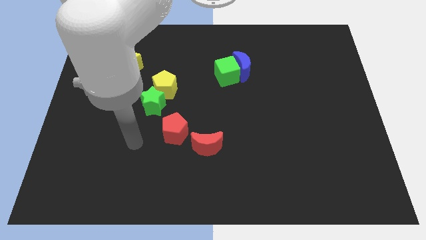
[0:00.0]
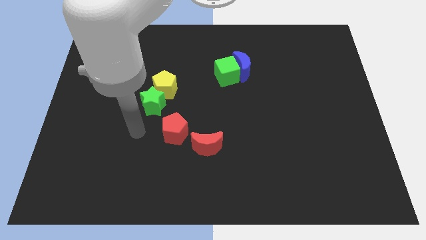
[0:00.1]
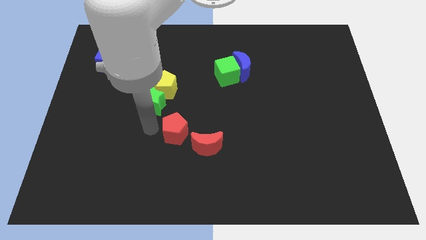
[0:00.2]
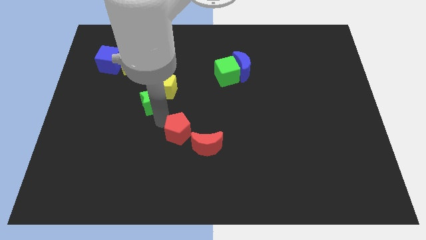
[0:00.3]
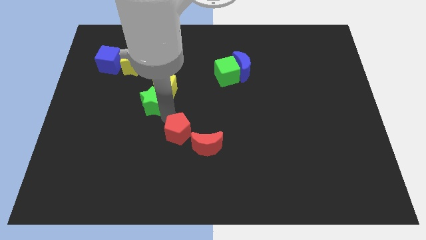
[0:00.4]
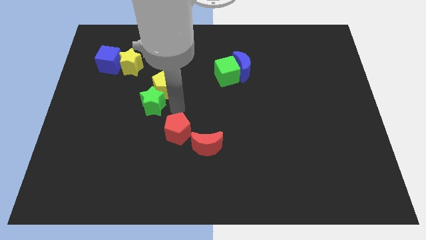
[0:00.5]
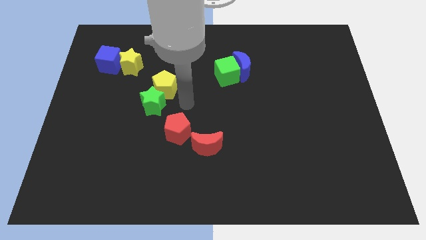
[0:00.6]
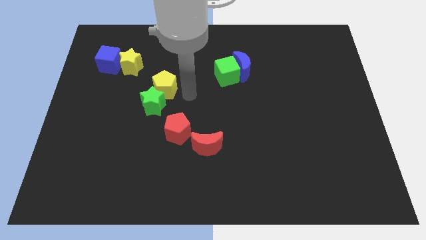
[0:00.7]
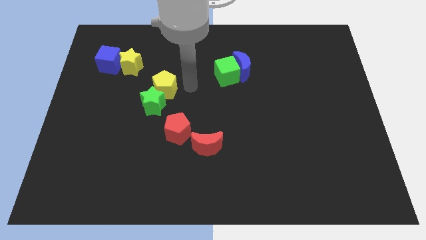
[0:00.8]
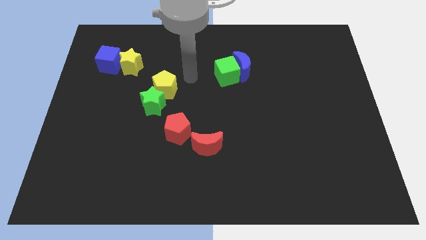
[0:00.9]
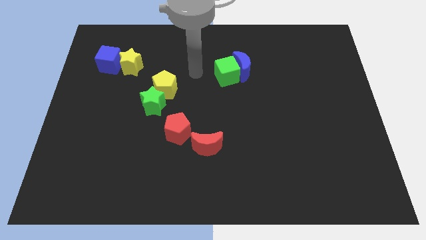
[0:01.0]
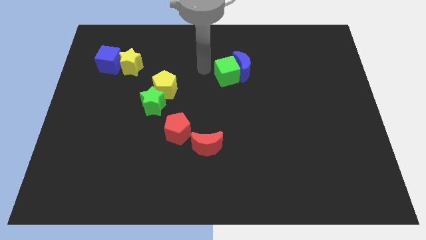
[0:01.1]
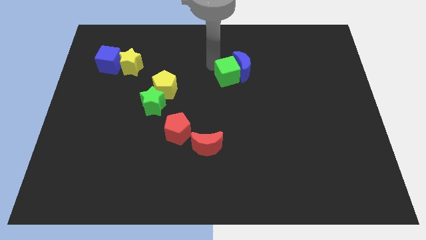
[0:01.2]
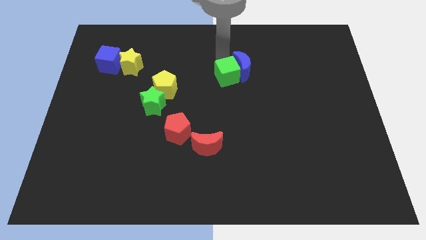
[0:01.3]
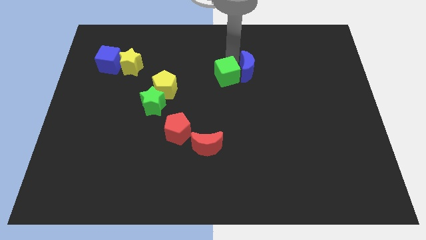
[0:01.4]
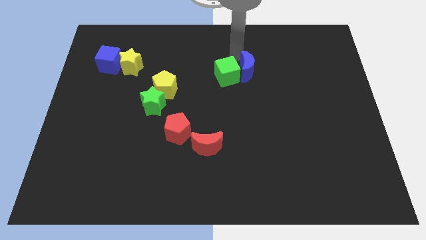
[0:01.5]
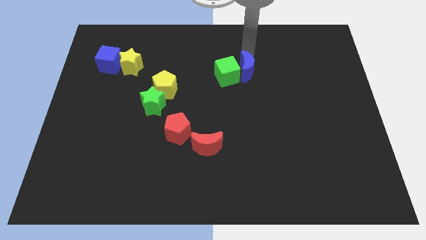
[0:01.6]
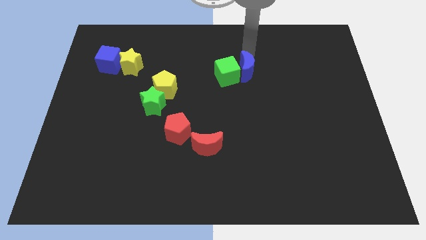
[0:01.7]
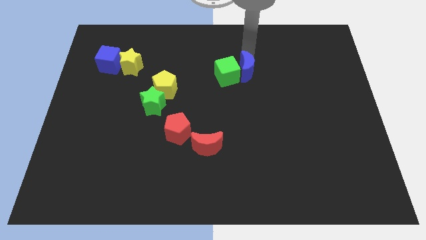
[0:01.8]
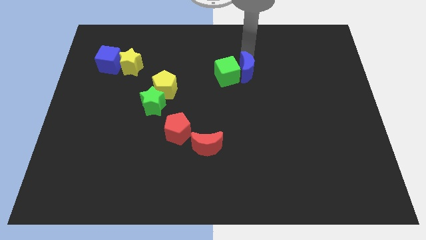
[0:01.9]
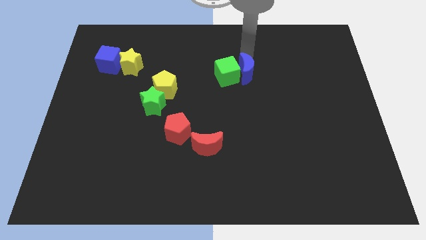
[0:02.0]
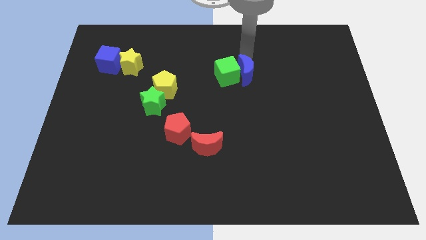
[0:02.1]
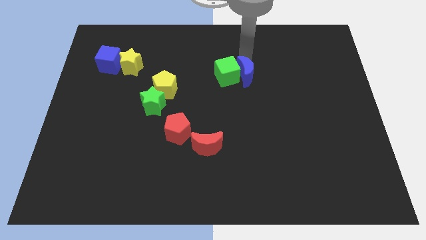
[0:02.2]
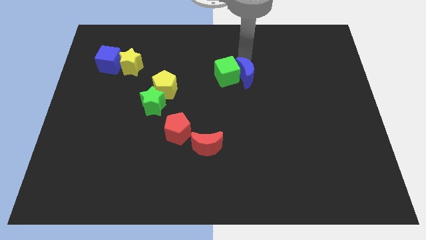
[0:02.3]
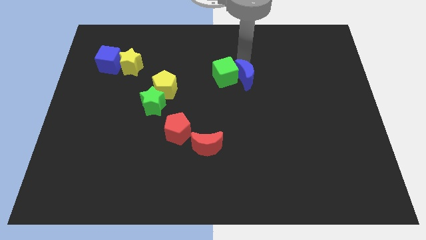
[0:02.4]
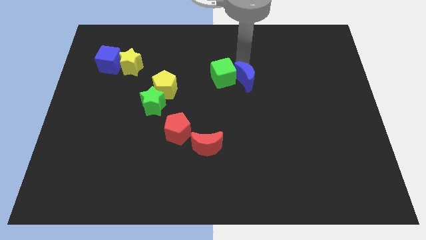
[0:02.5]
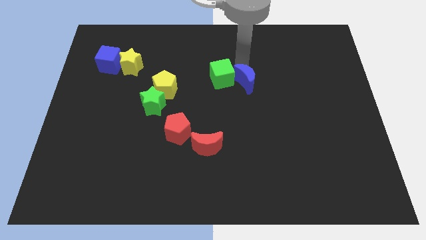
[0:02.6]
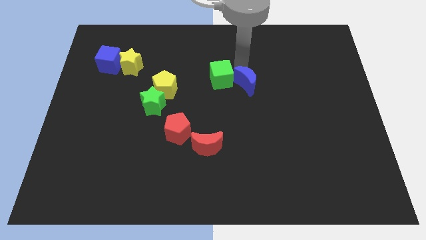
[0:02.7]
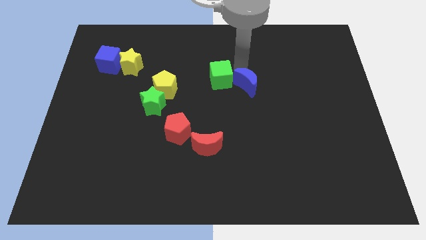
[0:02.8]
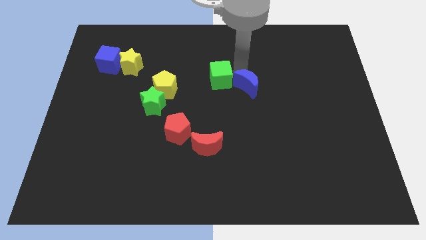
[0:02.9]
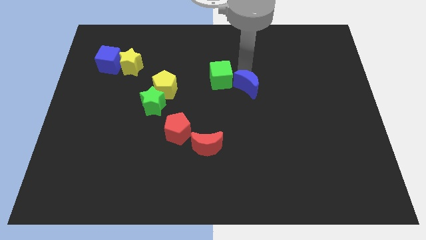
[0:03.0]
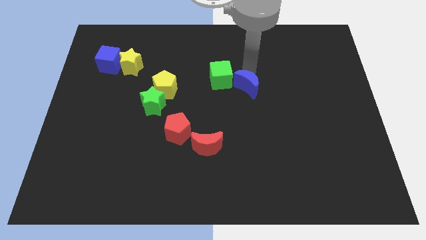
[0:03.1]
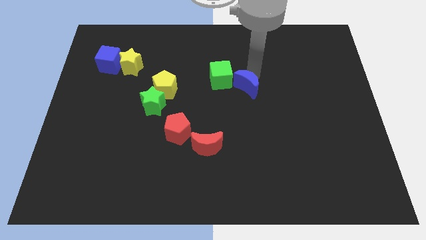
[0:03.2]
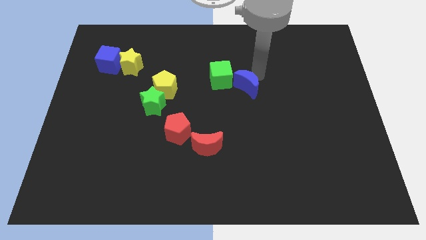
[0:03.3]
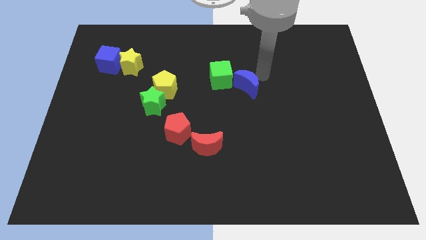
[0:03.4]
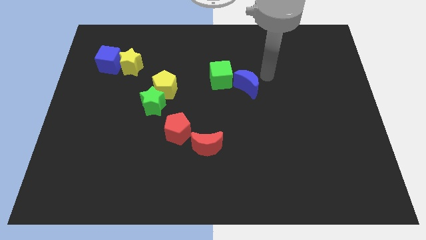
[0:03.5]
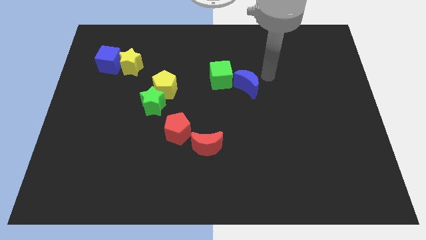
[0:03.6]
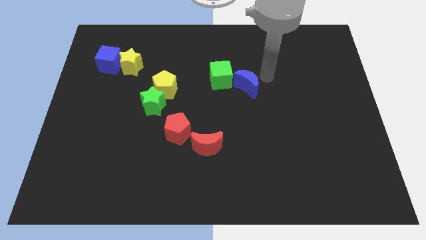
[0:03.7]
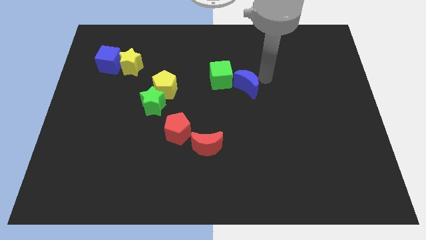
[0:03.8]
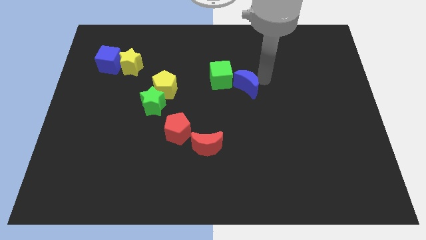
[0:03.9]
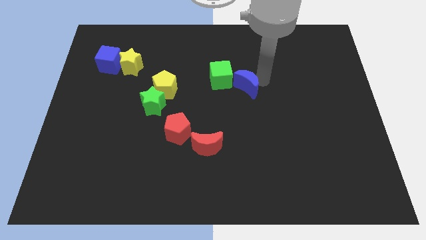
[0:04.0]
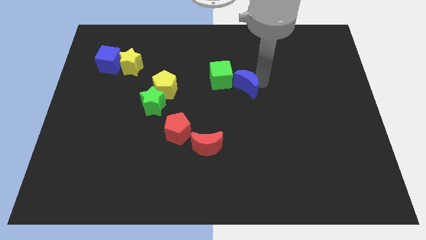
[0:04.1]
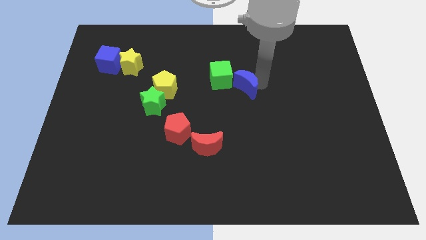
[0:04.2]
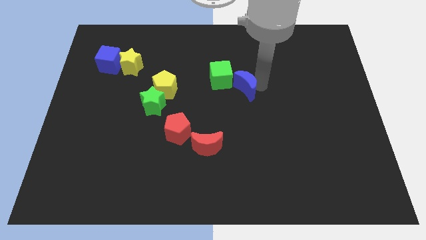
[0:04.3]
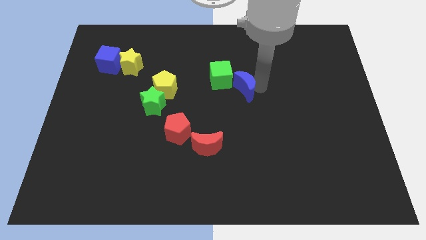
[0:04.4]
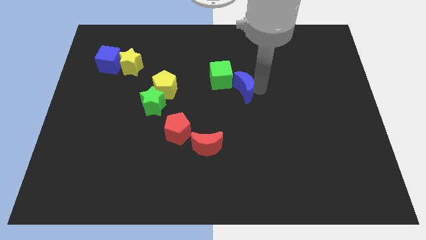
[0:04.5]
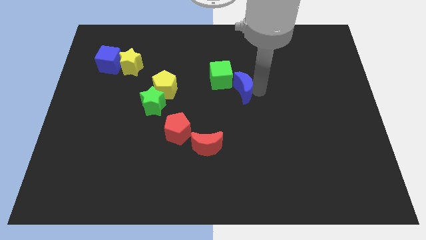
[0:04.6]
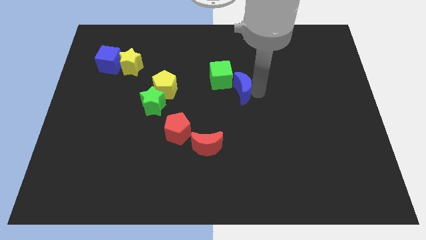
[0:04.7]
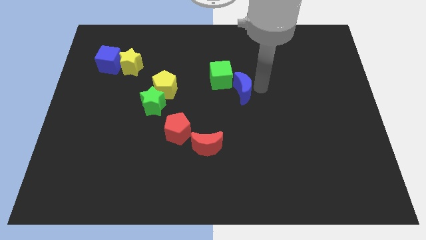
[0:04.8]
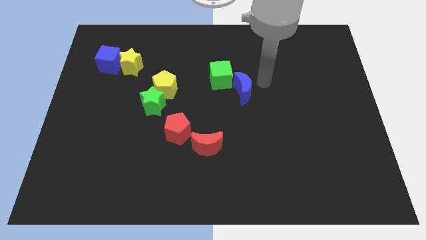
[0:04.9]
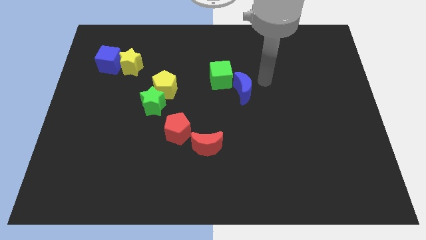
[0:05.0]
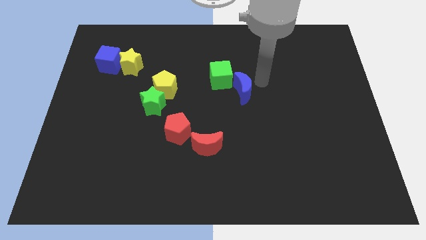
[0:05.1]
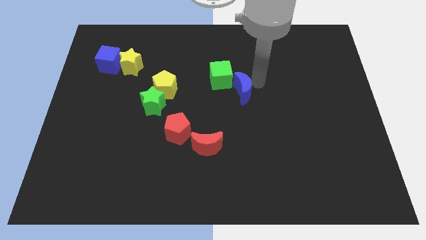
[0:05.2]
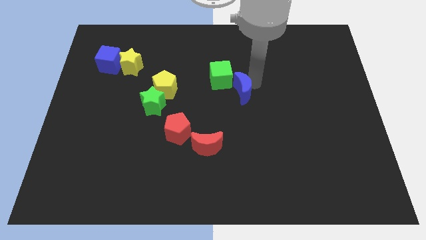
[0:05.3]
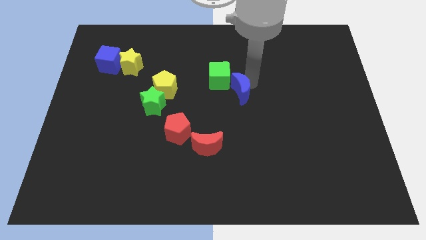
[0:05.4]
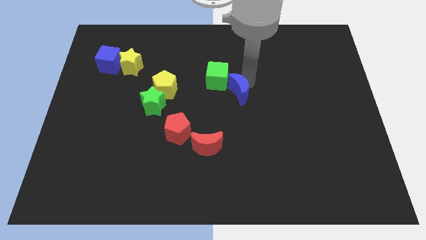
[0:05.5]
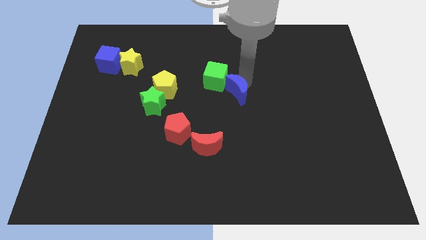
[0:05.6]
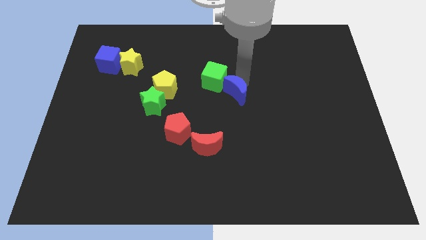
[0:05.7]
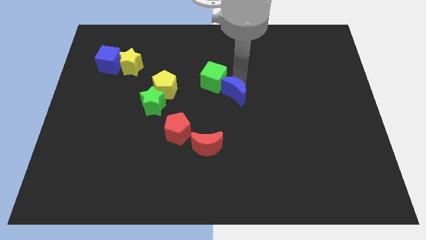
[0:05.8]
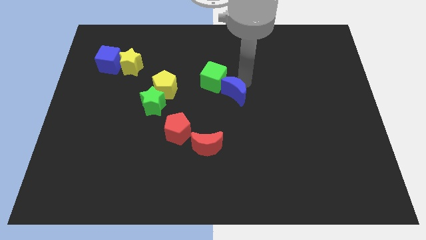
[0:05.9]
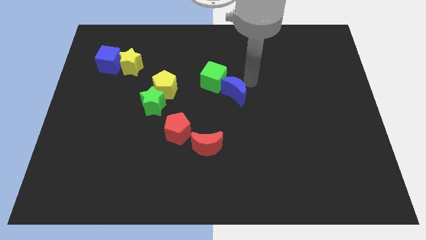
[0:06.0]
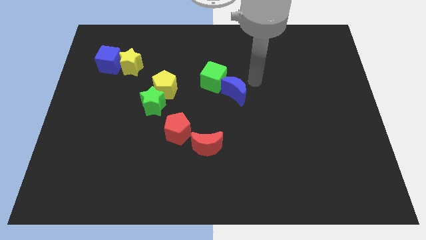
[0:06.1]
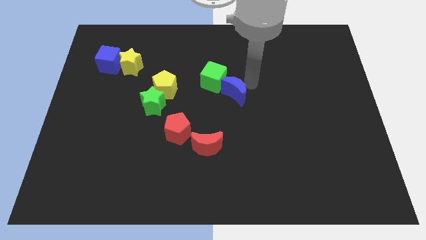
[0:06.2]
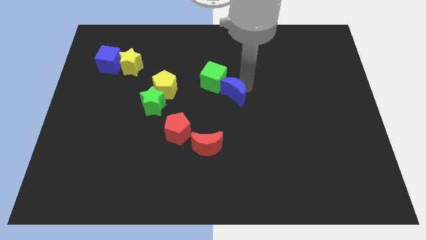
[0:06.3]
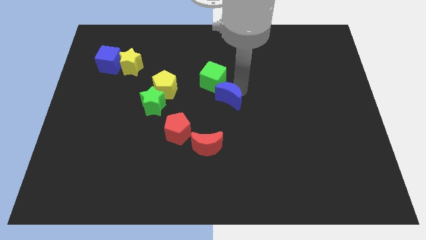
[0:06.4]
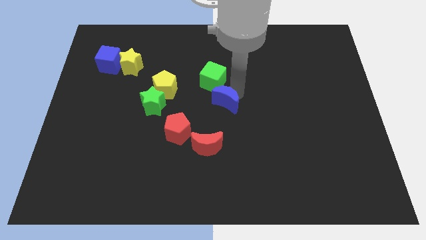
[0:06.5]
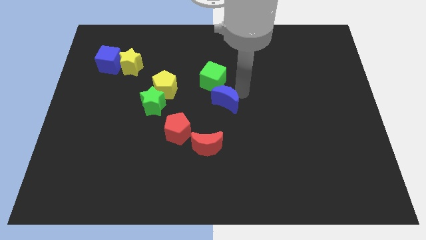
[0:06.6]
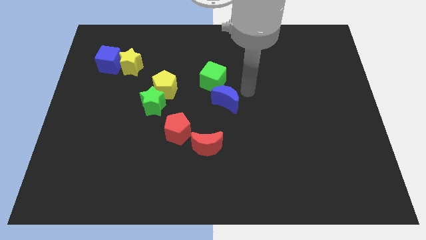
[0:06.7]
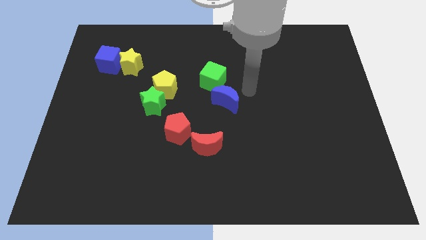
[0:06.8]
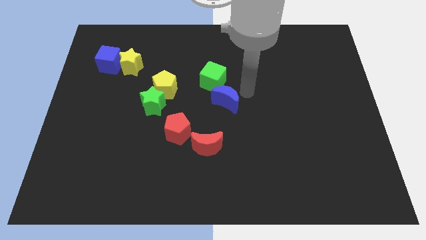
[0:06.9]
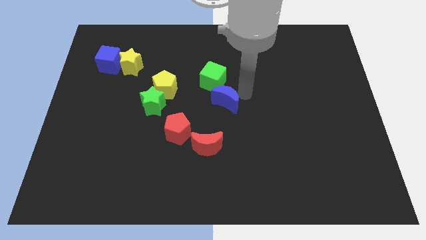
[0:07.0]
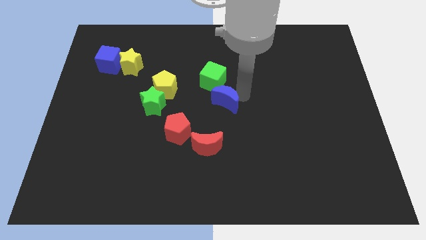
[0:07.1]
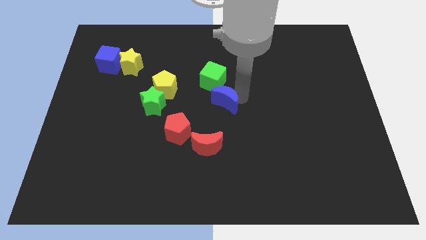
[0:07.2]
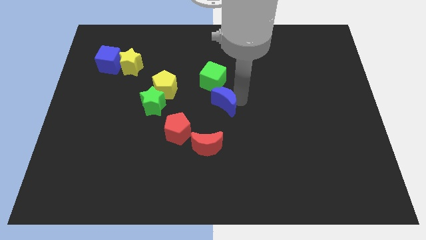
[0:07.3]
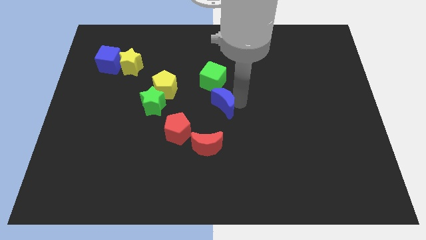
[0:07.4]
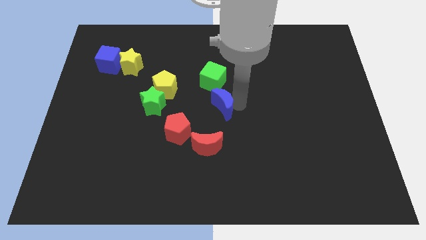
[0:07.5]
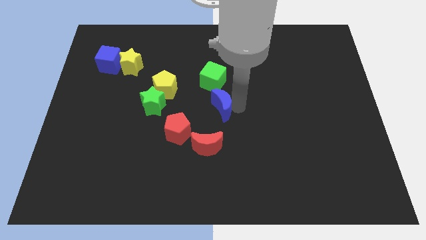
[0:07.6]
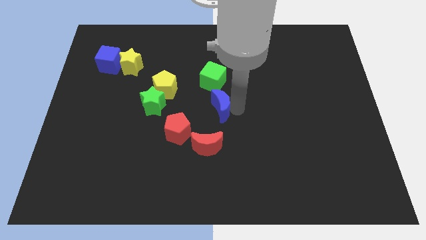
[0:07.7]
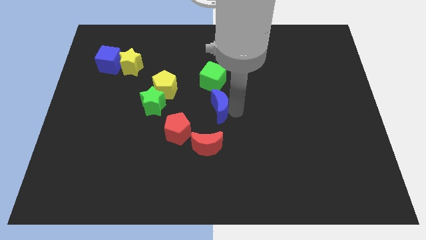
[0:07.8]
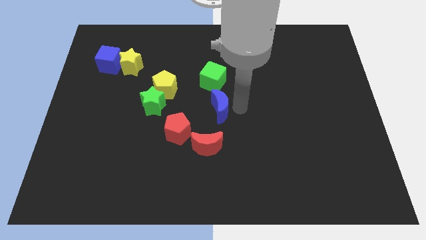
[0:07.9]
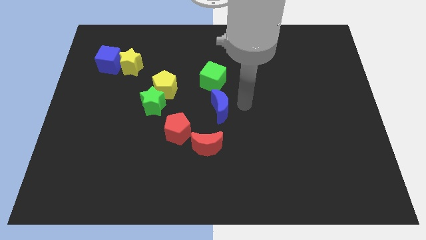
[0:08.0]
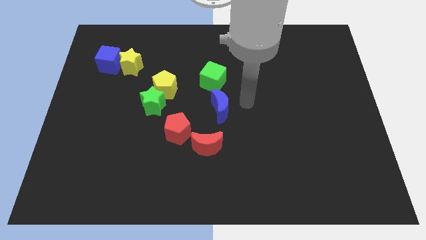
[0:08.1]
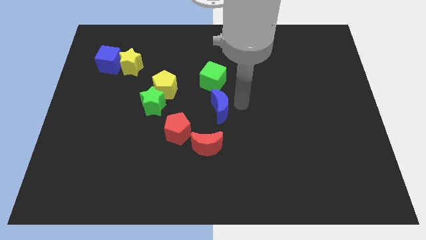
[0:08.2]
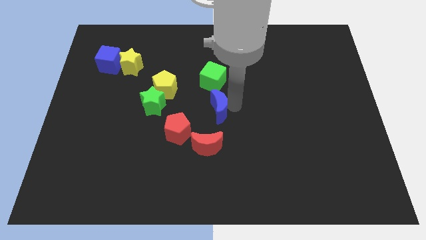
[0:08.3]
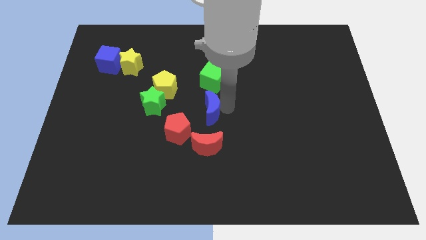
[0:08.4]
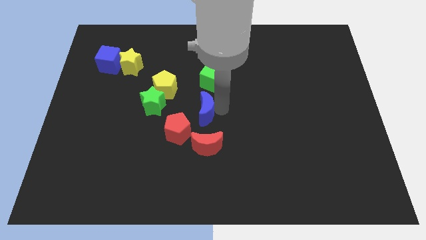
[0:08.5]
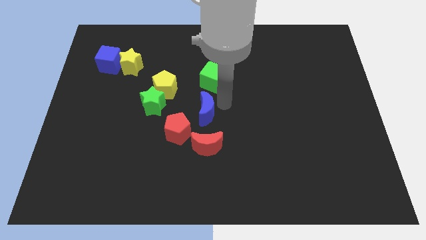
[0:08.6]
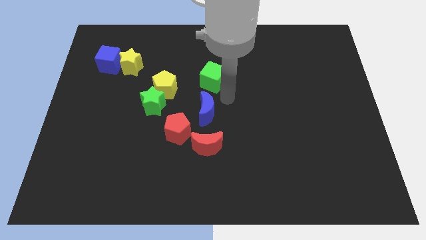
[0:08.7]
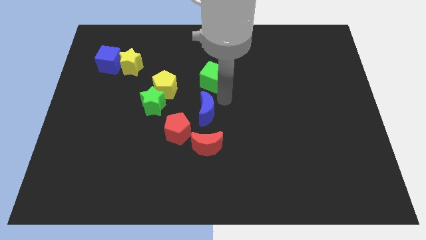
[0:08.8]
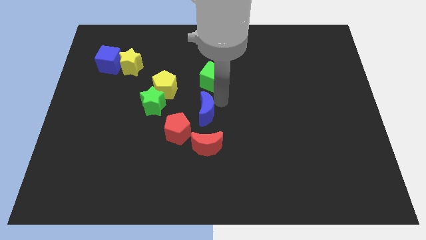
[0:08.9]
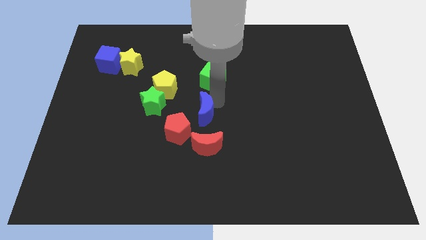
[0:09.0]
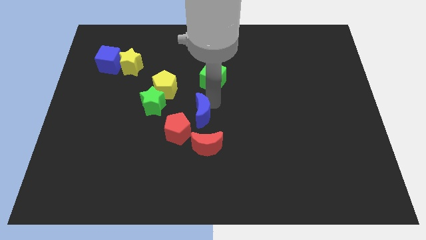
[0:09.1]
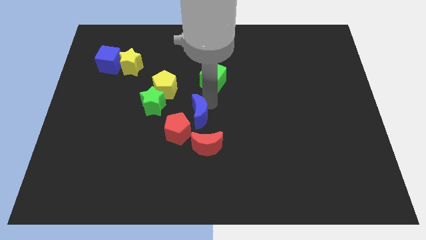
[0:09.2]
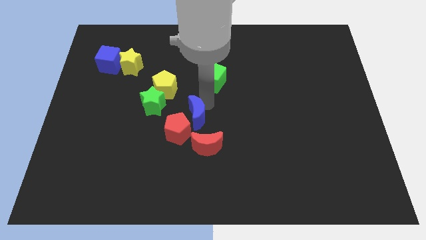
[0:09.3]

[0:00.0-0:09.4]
put the blue moon close to the red pentagon
